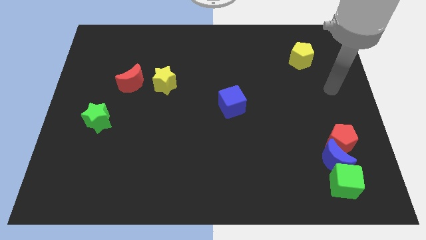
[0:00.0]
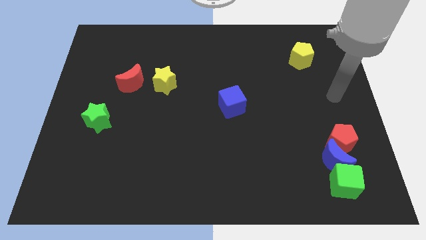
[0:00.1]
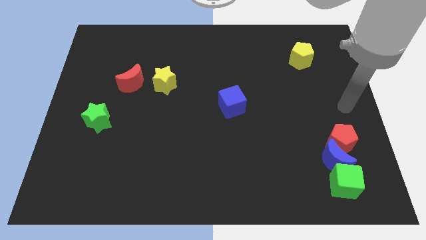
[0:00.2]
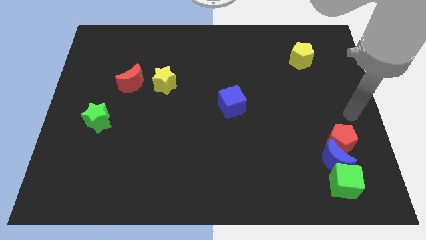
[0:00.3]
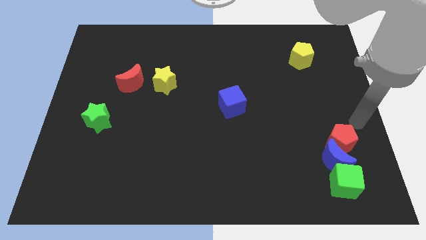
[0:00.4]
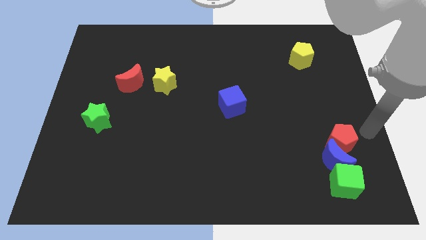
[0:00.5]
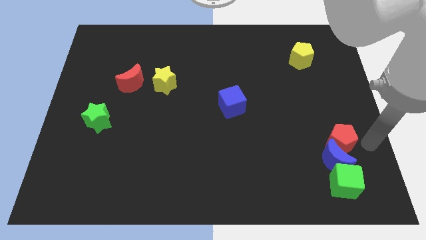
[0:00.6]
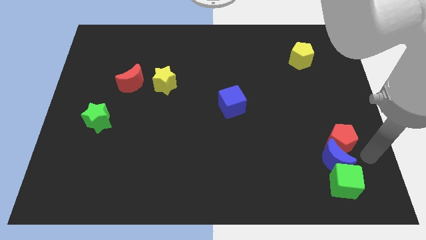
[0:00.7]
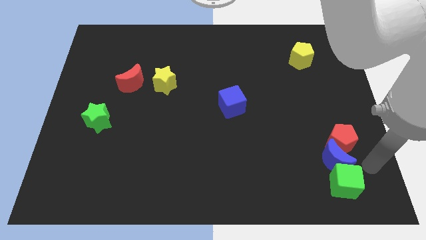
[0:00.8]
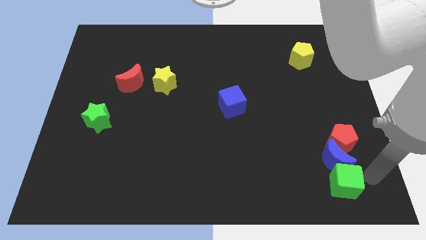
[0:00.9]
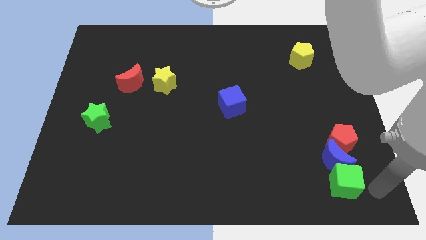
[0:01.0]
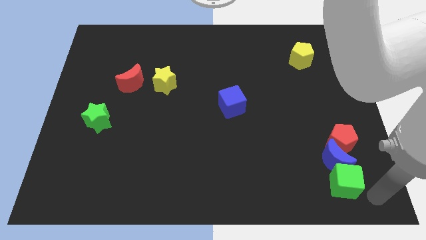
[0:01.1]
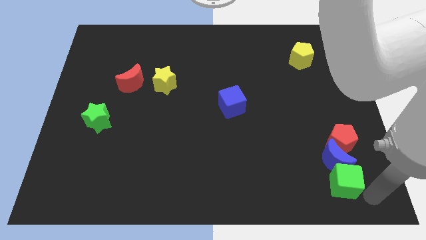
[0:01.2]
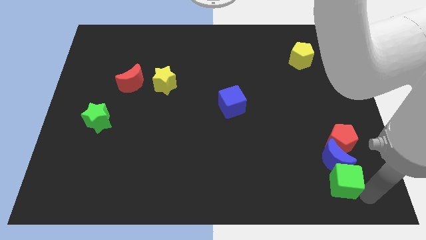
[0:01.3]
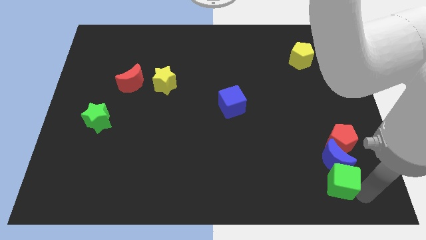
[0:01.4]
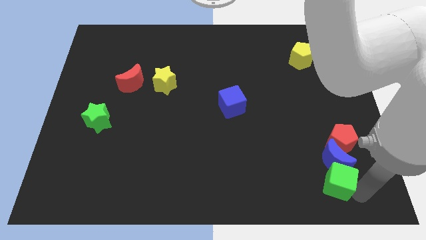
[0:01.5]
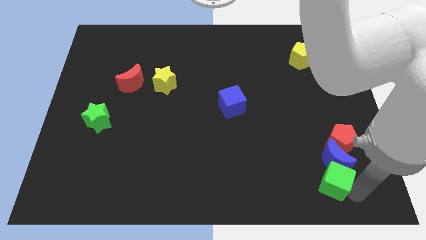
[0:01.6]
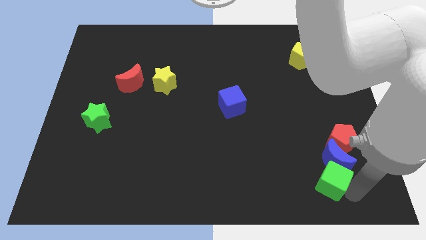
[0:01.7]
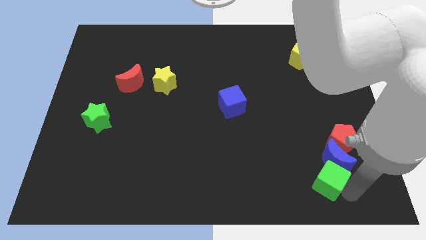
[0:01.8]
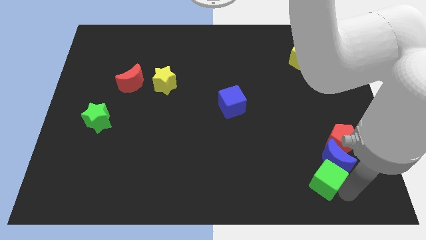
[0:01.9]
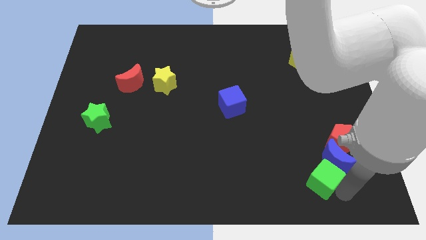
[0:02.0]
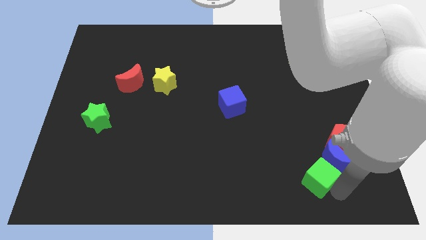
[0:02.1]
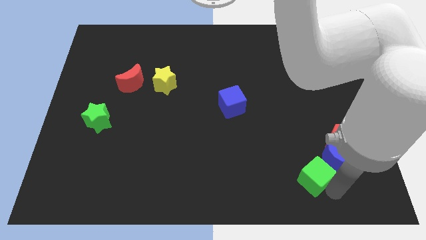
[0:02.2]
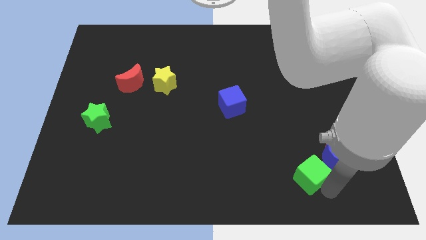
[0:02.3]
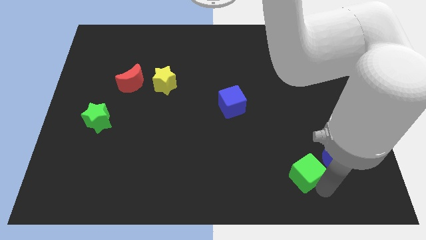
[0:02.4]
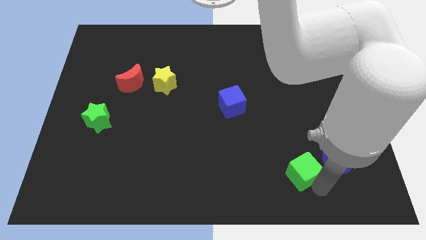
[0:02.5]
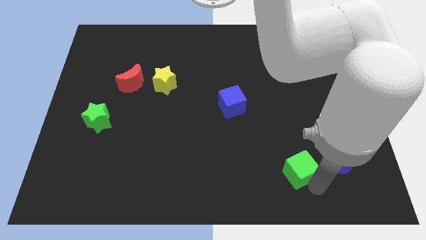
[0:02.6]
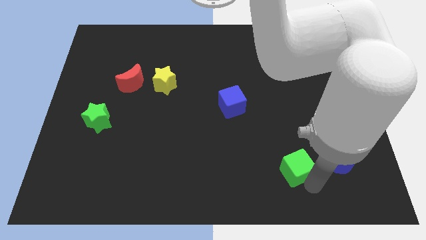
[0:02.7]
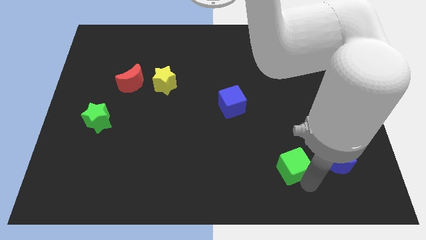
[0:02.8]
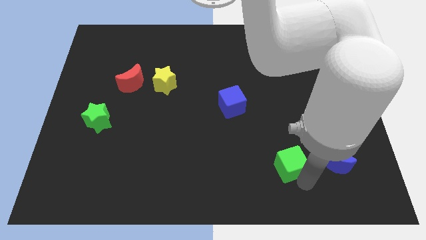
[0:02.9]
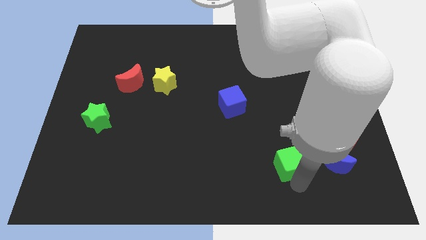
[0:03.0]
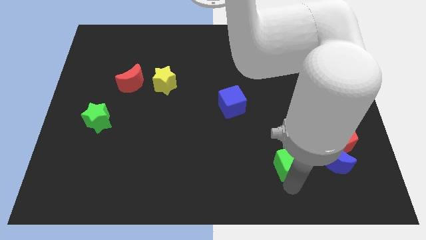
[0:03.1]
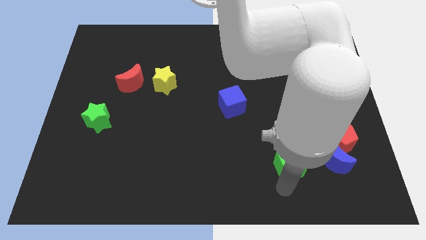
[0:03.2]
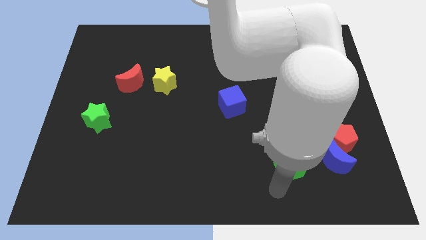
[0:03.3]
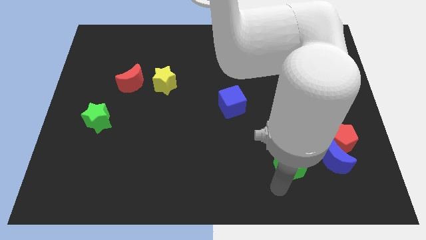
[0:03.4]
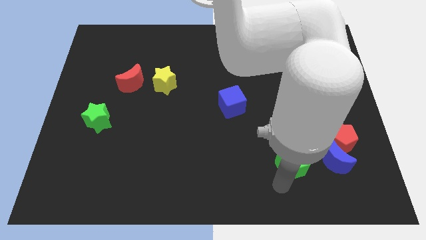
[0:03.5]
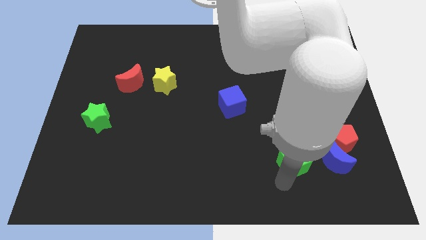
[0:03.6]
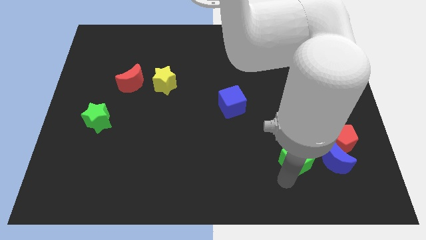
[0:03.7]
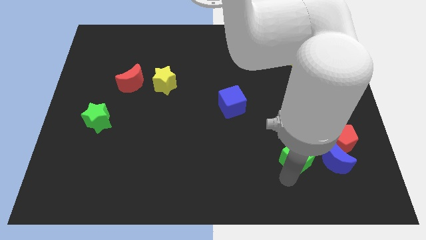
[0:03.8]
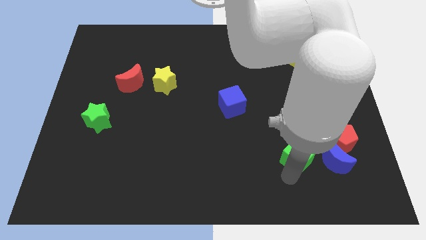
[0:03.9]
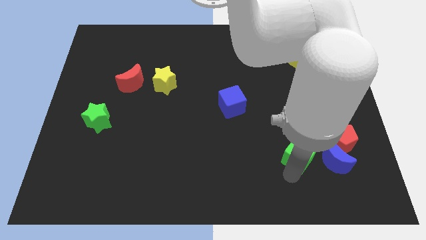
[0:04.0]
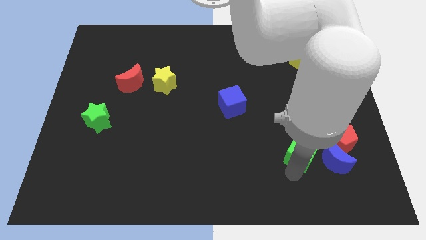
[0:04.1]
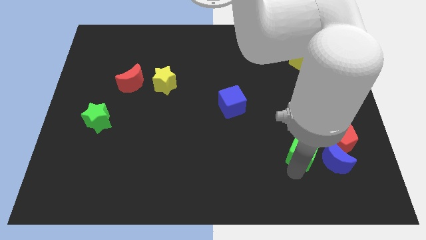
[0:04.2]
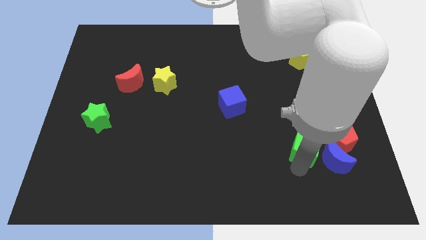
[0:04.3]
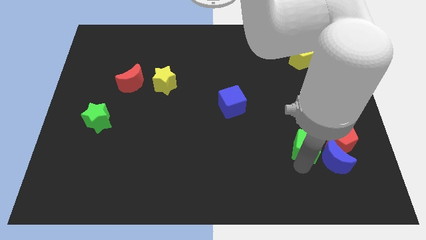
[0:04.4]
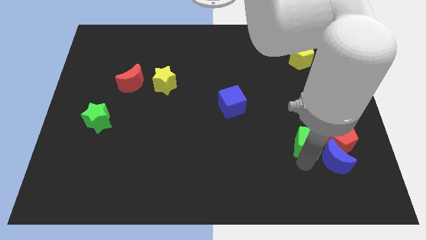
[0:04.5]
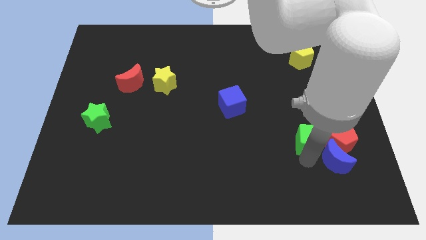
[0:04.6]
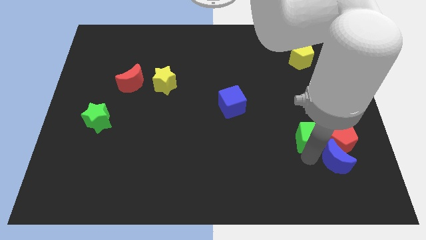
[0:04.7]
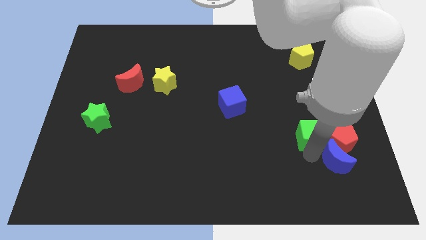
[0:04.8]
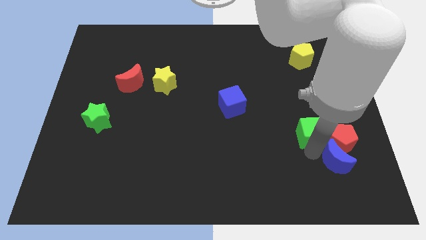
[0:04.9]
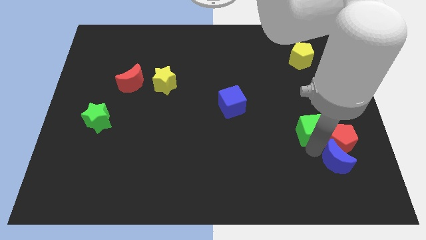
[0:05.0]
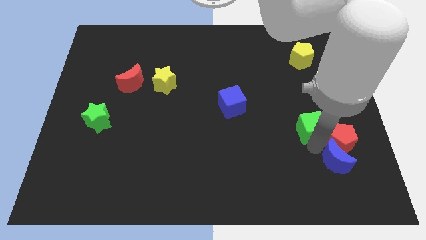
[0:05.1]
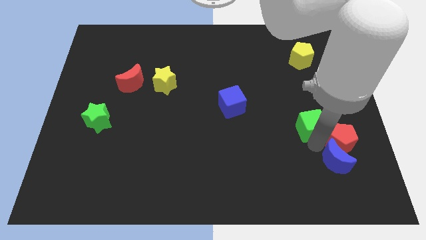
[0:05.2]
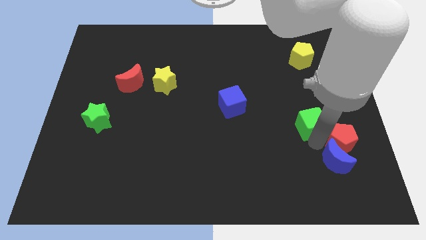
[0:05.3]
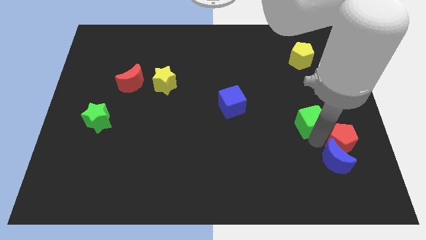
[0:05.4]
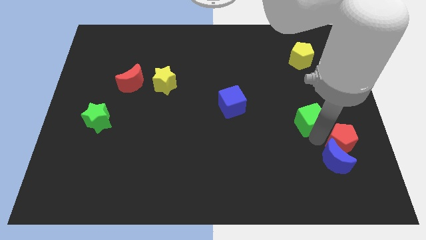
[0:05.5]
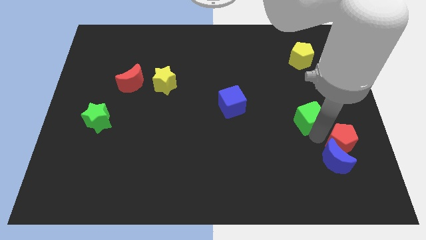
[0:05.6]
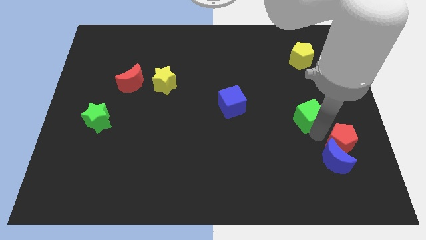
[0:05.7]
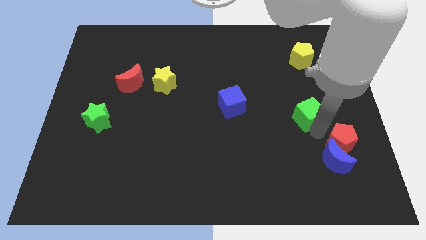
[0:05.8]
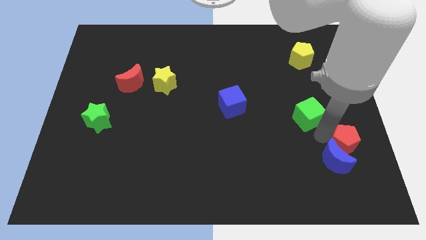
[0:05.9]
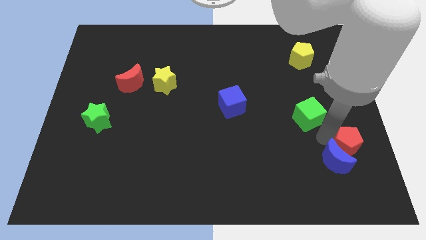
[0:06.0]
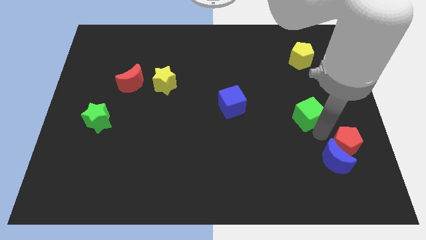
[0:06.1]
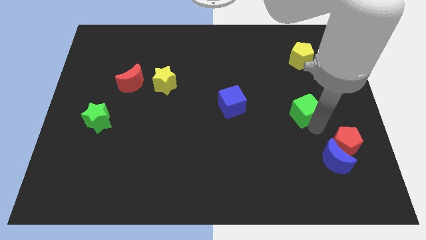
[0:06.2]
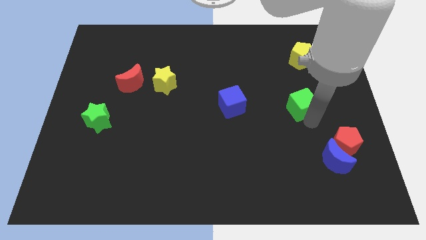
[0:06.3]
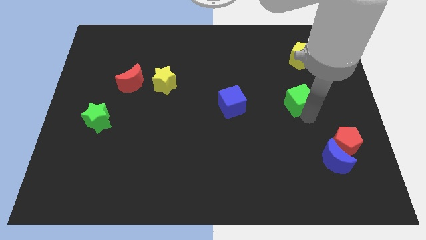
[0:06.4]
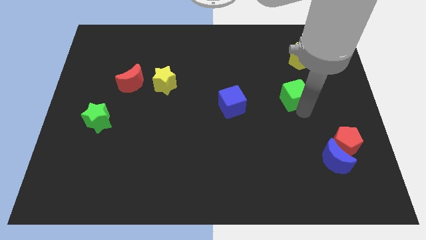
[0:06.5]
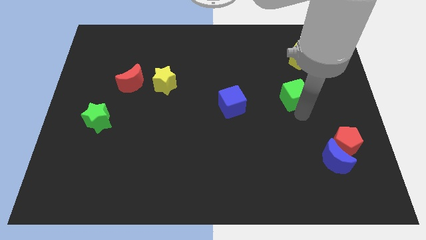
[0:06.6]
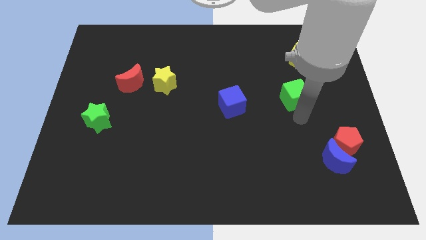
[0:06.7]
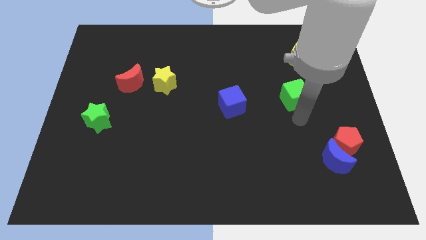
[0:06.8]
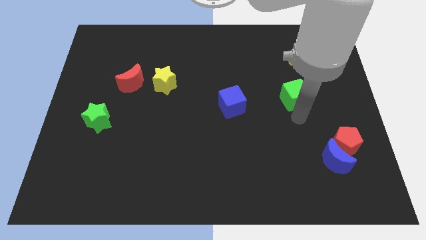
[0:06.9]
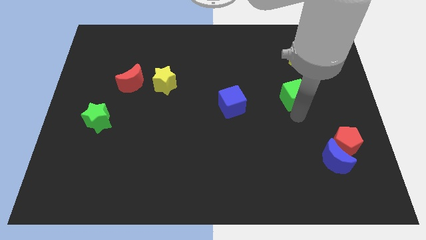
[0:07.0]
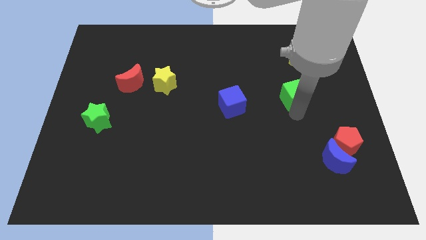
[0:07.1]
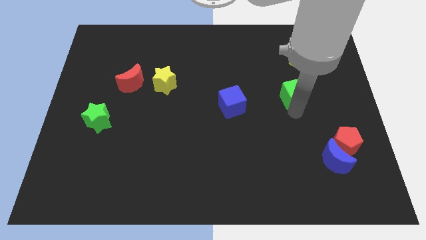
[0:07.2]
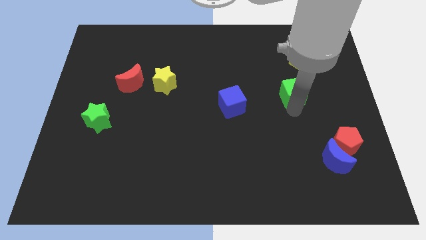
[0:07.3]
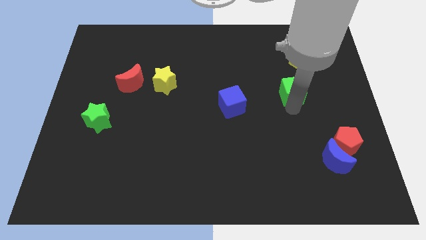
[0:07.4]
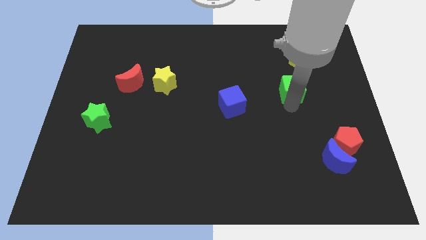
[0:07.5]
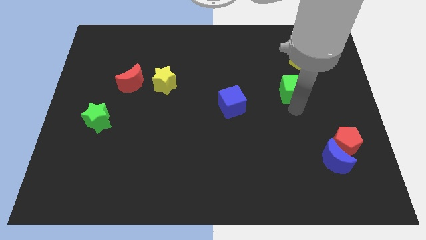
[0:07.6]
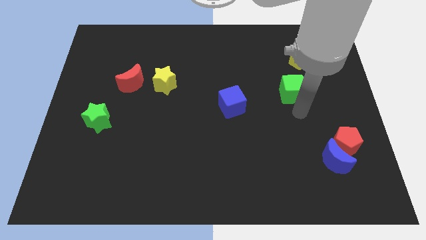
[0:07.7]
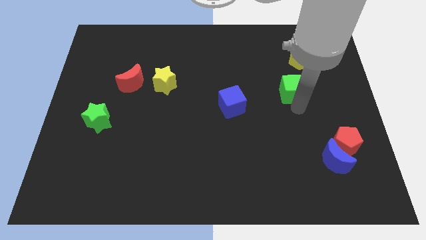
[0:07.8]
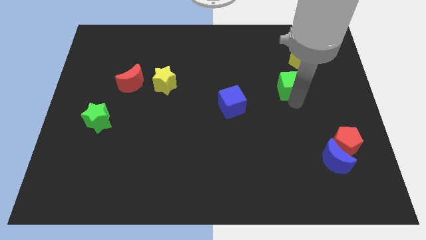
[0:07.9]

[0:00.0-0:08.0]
put the green cube to the bottom left of the yellow pentagon

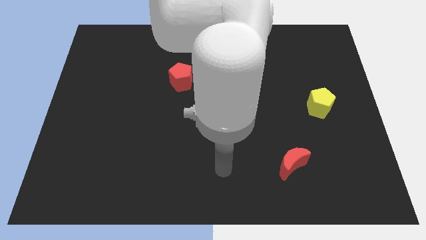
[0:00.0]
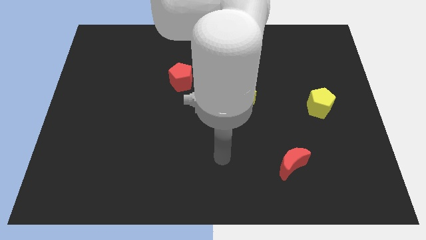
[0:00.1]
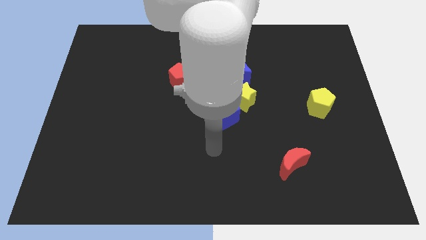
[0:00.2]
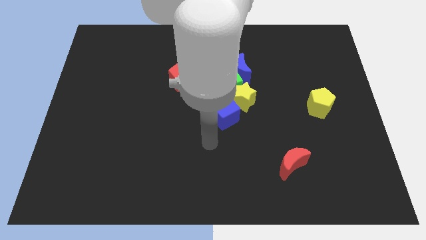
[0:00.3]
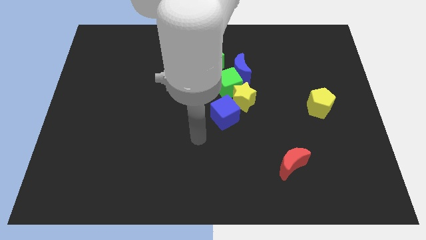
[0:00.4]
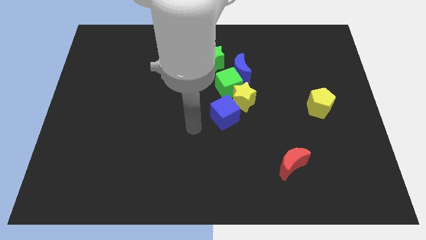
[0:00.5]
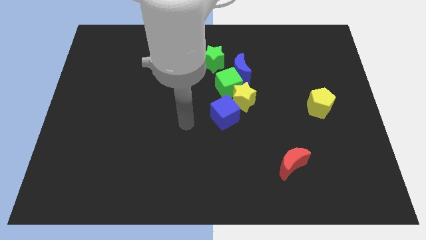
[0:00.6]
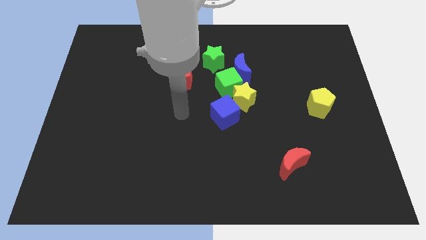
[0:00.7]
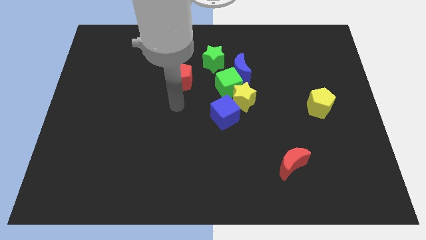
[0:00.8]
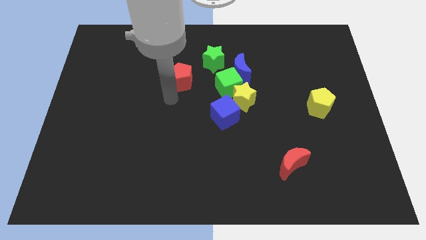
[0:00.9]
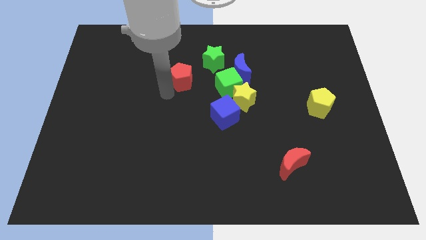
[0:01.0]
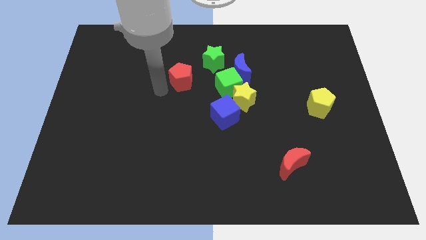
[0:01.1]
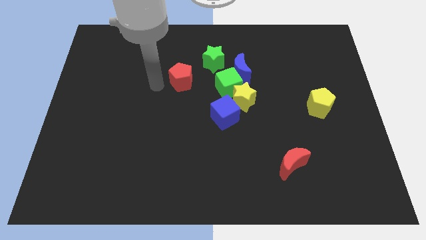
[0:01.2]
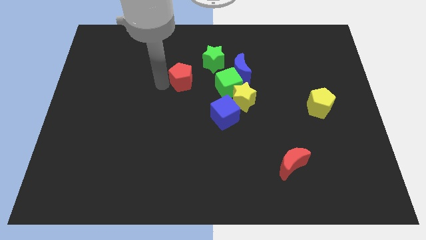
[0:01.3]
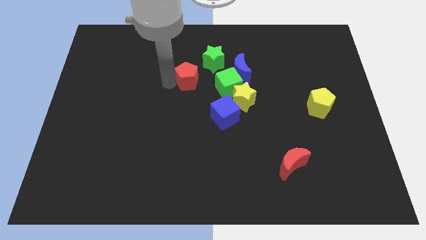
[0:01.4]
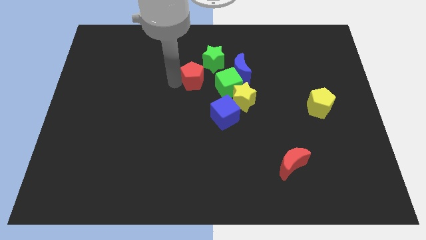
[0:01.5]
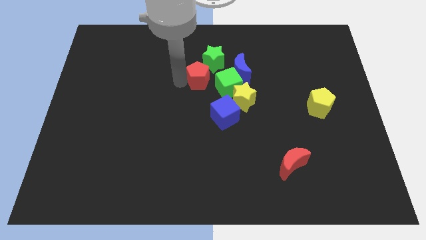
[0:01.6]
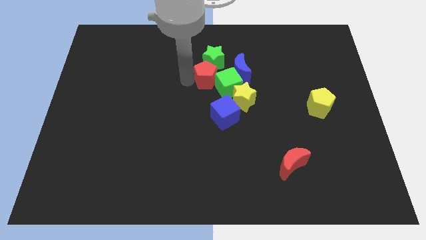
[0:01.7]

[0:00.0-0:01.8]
slide the red pentagon to the top side of the blue cube
